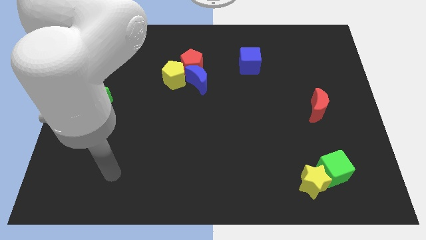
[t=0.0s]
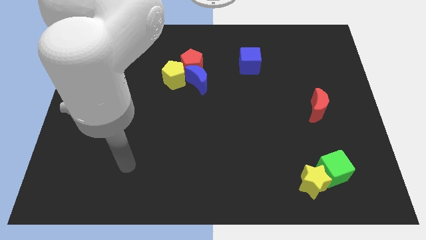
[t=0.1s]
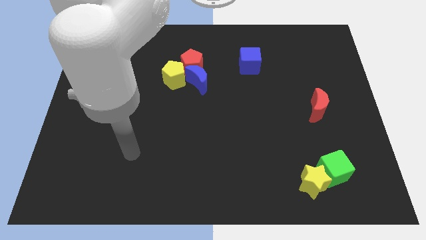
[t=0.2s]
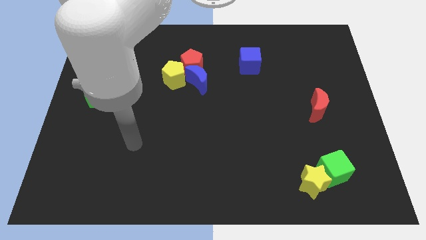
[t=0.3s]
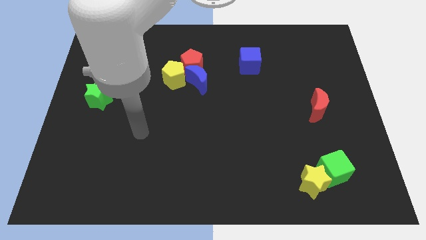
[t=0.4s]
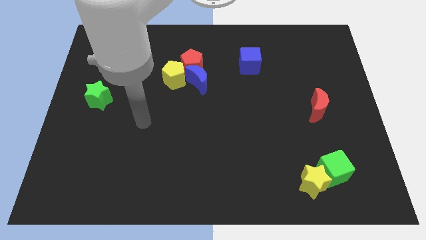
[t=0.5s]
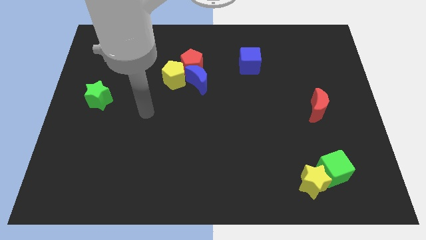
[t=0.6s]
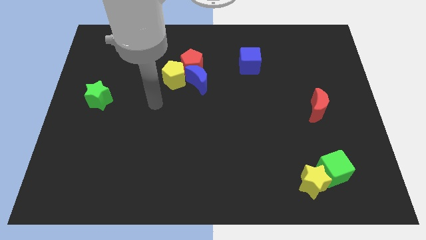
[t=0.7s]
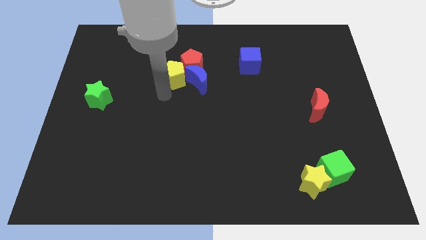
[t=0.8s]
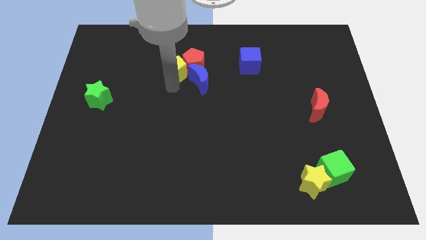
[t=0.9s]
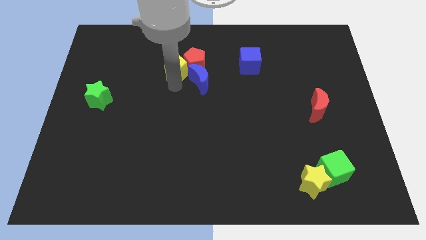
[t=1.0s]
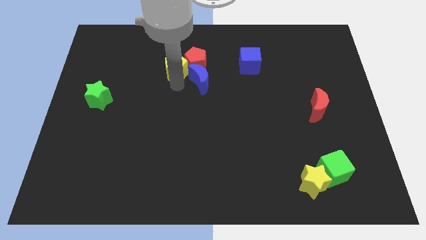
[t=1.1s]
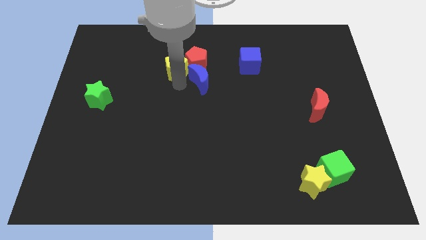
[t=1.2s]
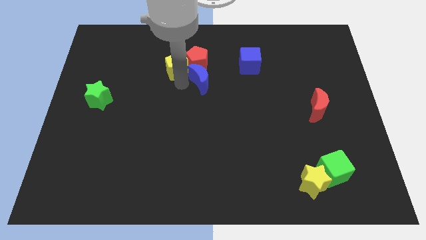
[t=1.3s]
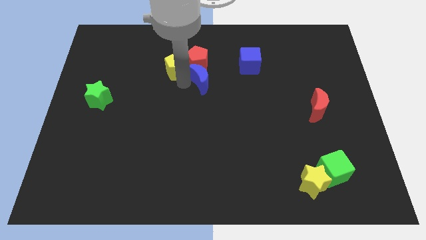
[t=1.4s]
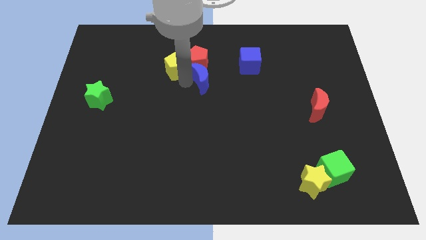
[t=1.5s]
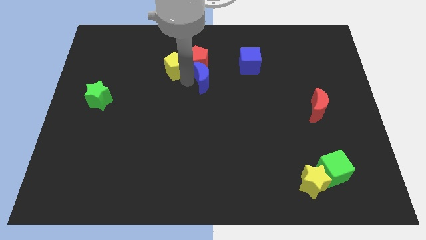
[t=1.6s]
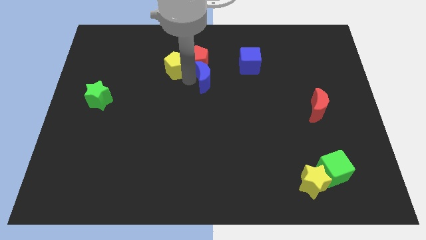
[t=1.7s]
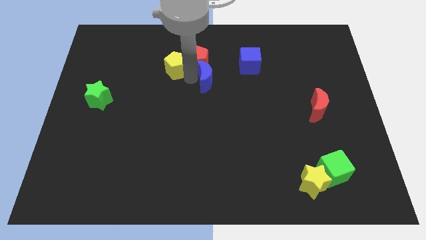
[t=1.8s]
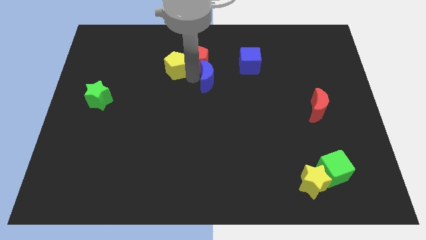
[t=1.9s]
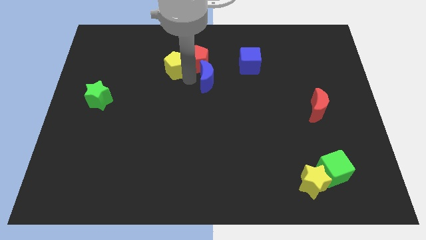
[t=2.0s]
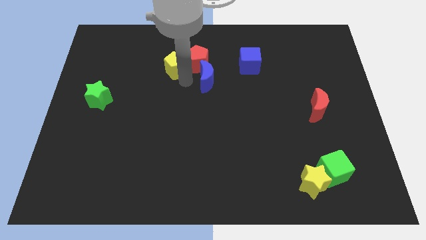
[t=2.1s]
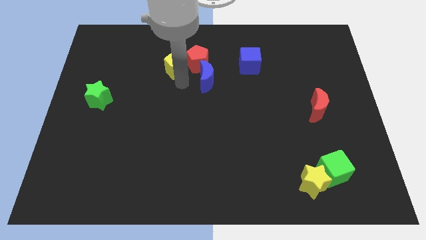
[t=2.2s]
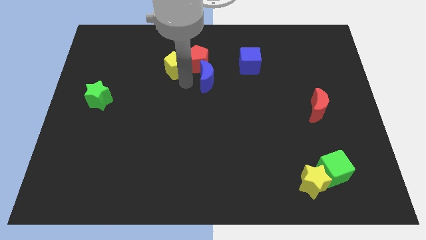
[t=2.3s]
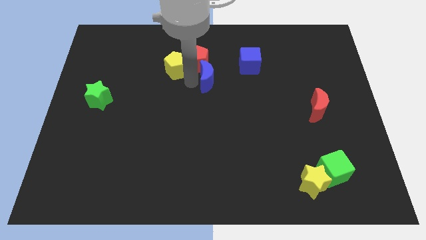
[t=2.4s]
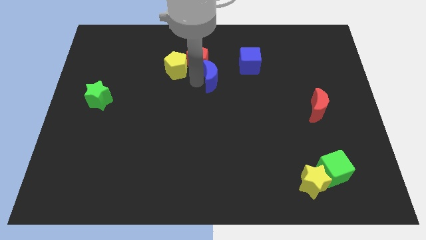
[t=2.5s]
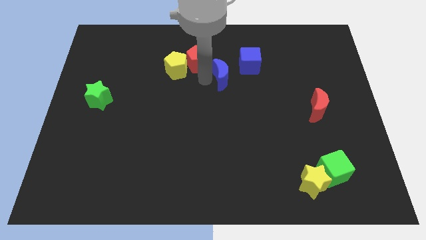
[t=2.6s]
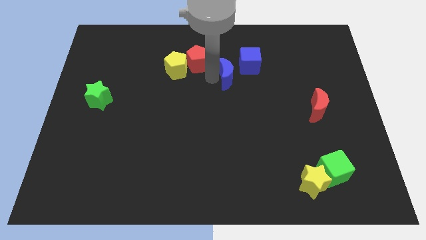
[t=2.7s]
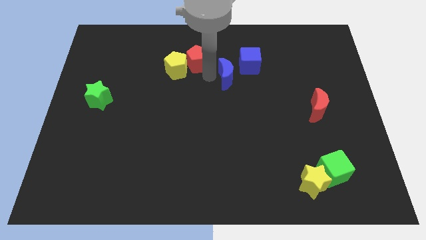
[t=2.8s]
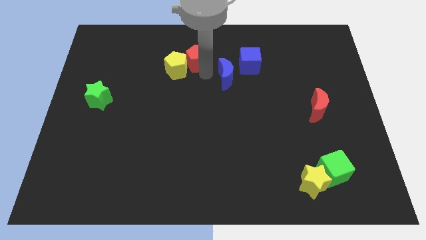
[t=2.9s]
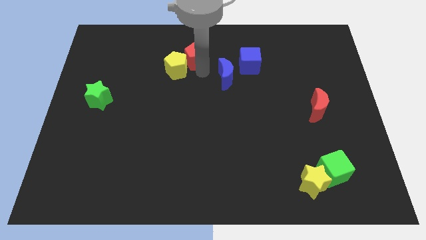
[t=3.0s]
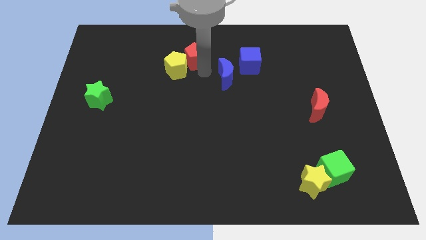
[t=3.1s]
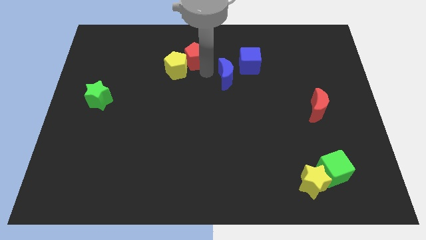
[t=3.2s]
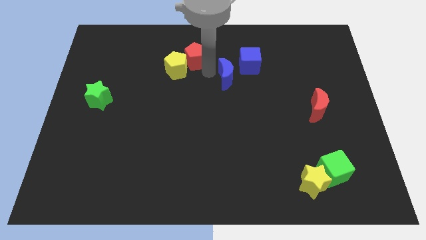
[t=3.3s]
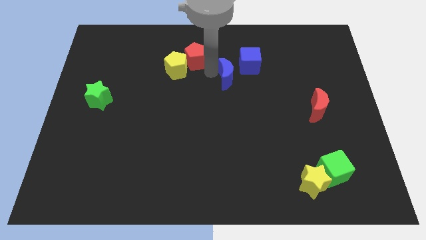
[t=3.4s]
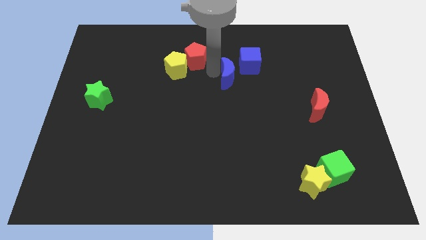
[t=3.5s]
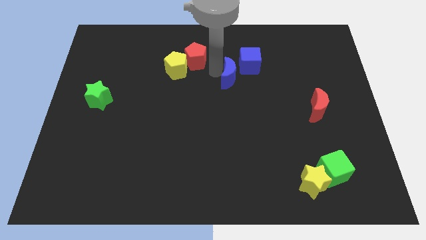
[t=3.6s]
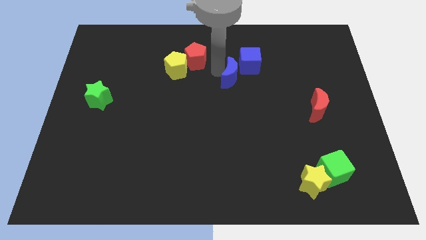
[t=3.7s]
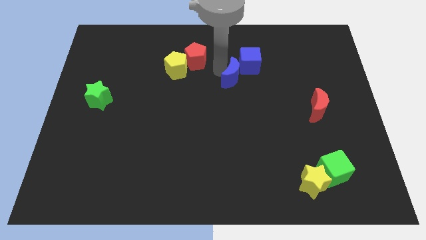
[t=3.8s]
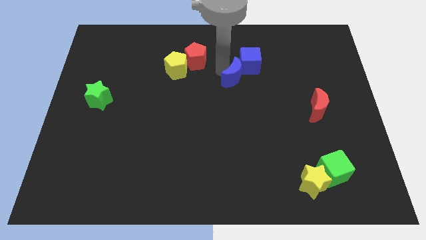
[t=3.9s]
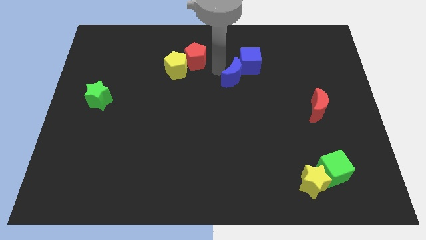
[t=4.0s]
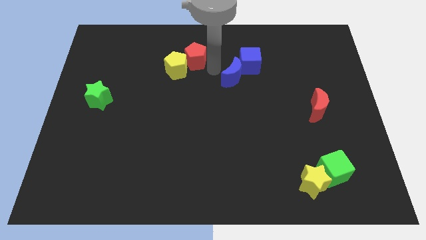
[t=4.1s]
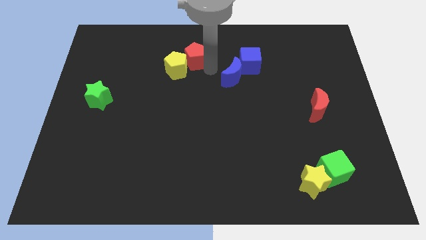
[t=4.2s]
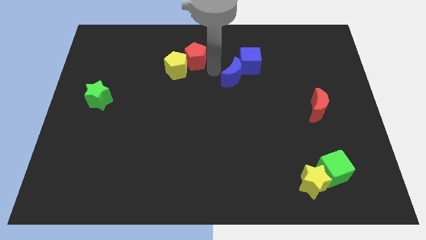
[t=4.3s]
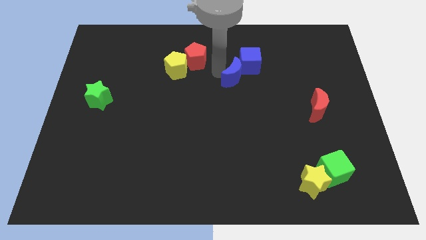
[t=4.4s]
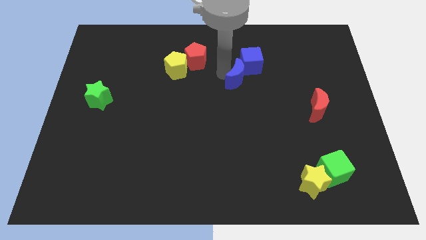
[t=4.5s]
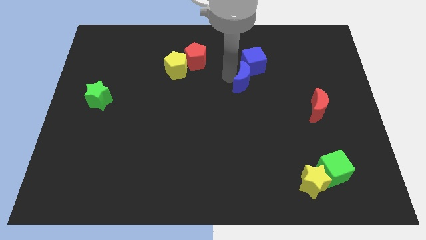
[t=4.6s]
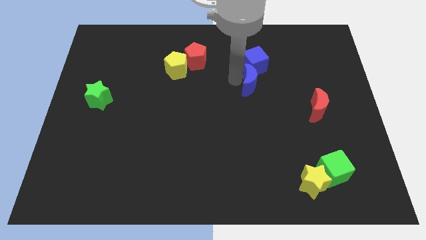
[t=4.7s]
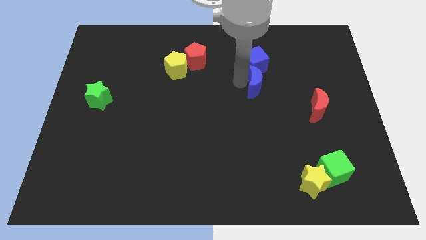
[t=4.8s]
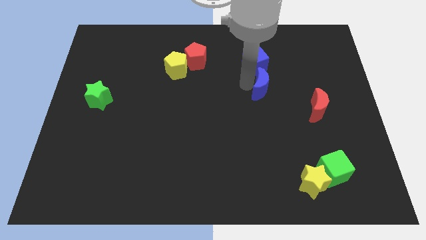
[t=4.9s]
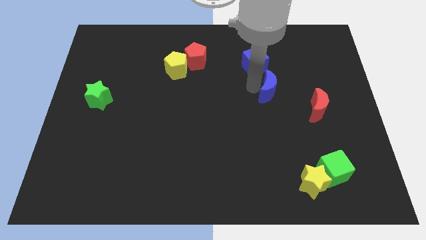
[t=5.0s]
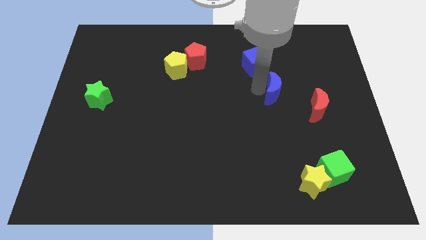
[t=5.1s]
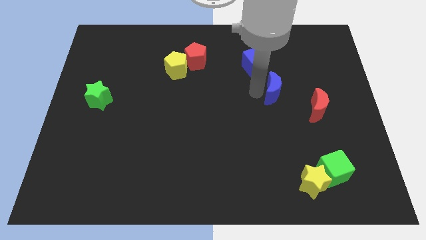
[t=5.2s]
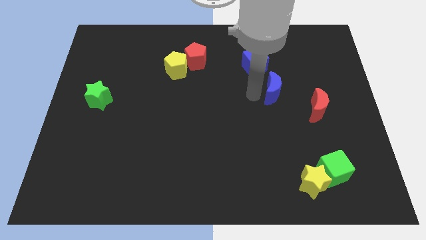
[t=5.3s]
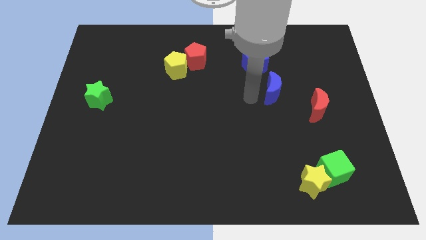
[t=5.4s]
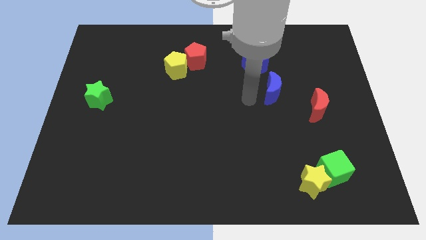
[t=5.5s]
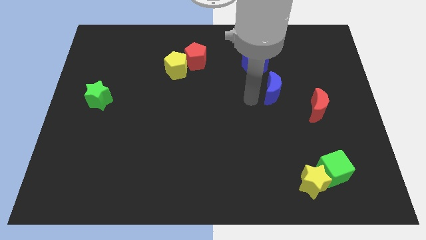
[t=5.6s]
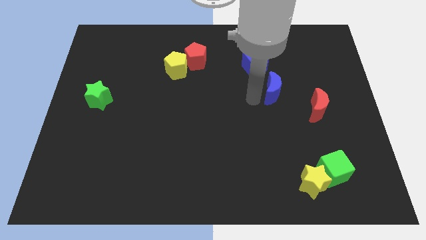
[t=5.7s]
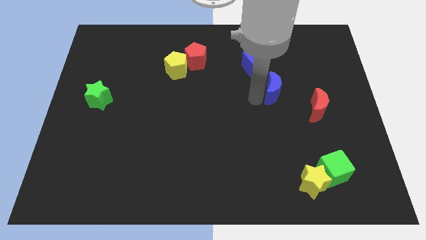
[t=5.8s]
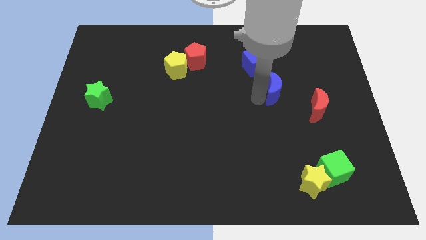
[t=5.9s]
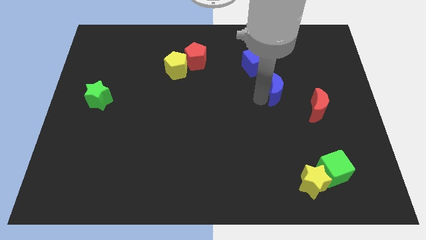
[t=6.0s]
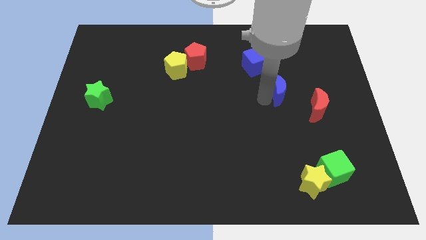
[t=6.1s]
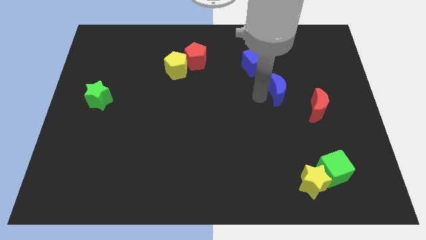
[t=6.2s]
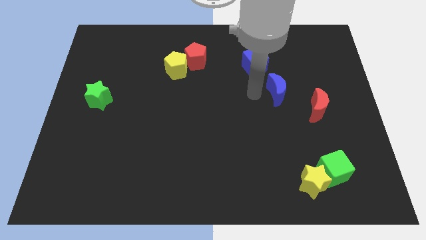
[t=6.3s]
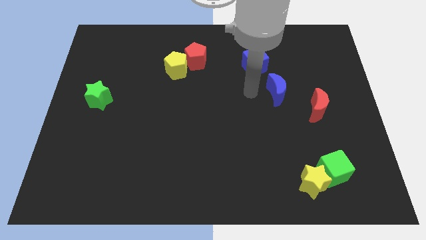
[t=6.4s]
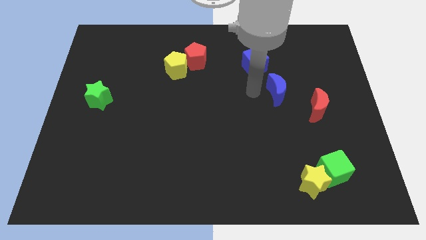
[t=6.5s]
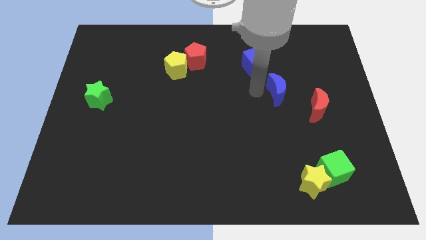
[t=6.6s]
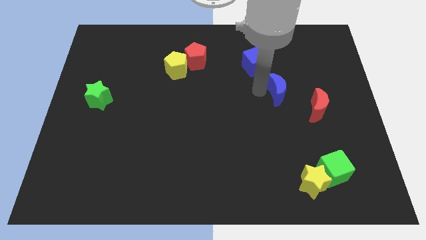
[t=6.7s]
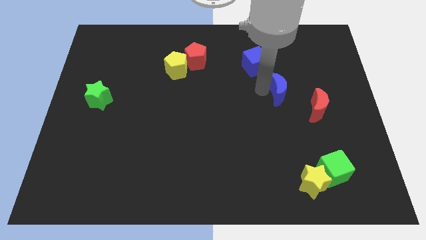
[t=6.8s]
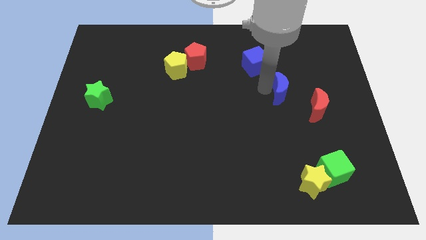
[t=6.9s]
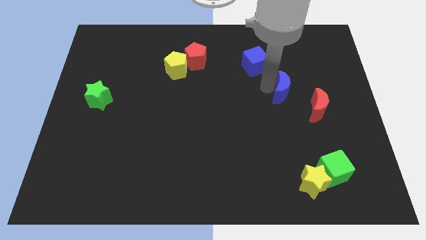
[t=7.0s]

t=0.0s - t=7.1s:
move the blue moon to the right

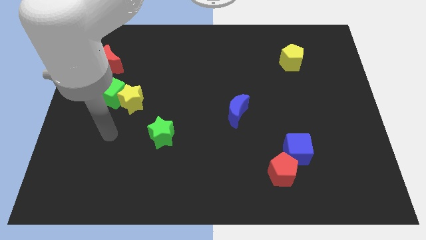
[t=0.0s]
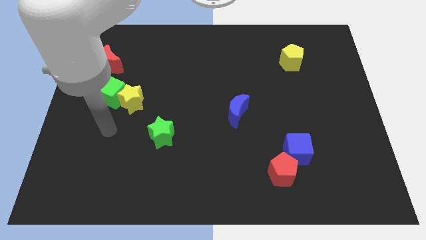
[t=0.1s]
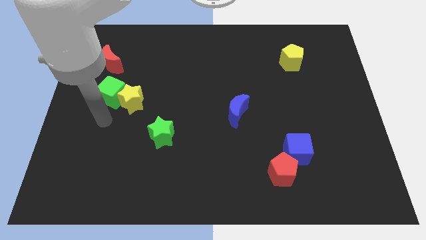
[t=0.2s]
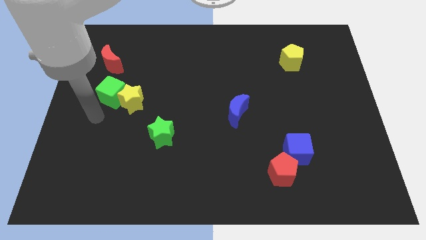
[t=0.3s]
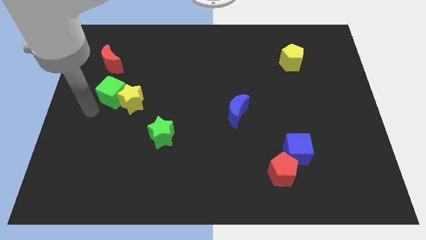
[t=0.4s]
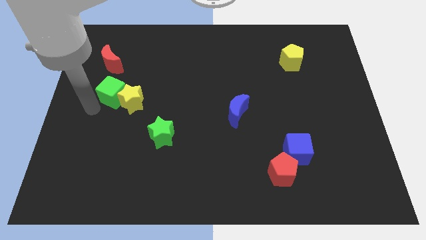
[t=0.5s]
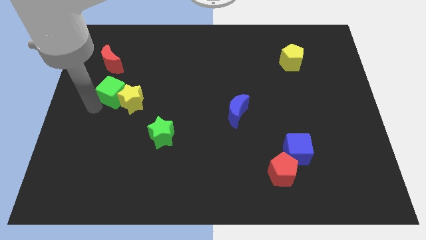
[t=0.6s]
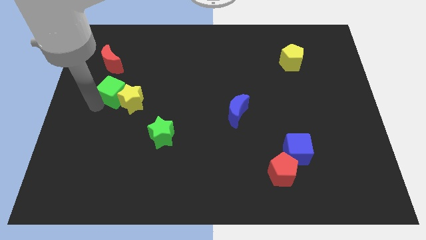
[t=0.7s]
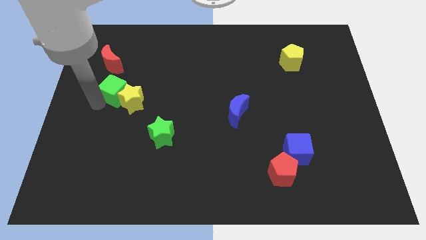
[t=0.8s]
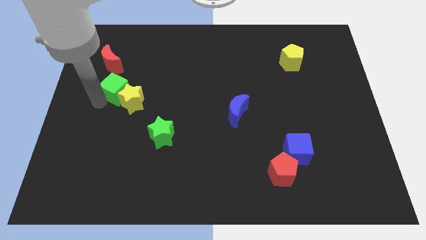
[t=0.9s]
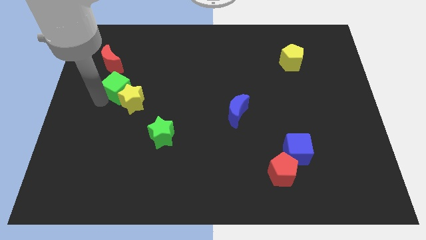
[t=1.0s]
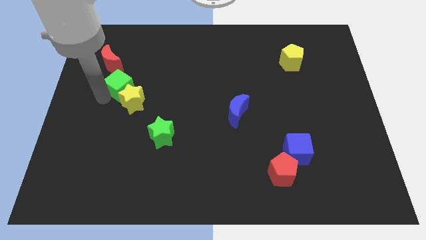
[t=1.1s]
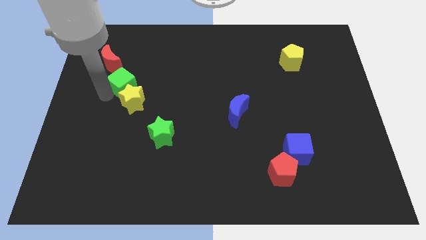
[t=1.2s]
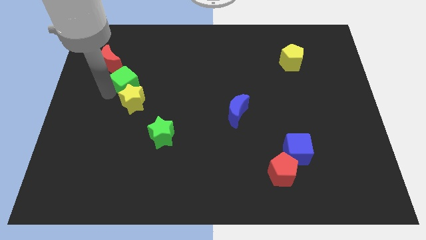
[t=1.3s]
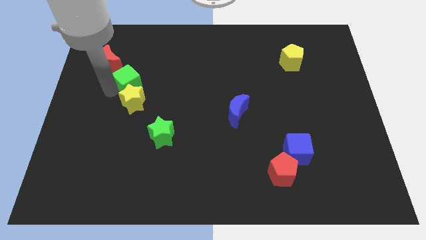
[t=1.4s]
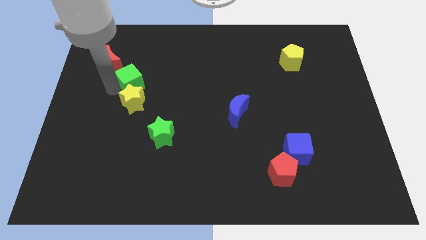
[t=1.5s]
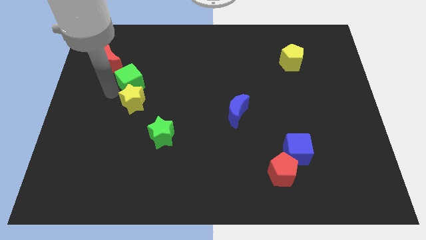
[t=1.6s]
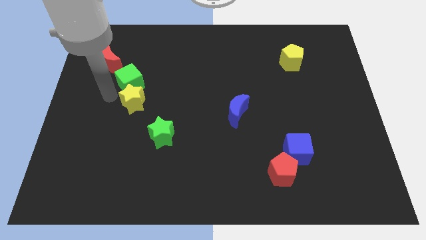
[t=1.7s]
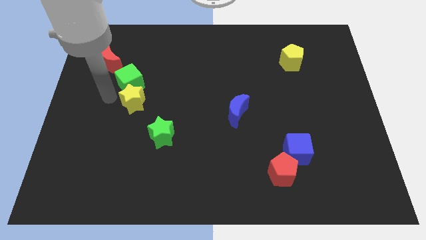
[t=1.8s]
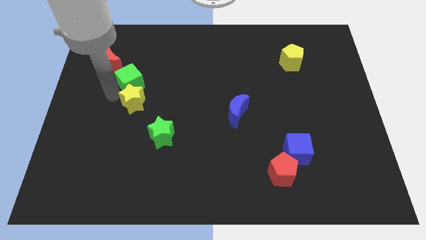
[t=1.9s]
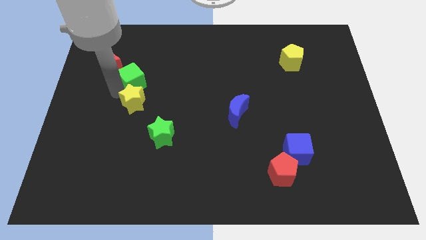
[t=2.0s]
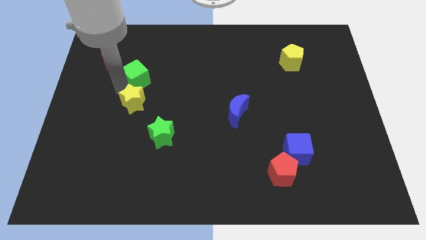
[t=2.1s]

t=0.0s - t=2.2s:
slightly move the green cube upwards and then right
